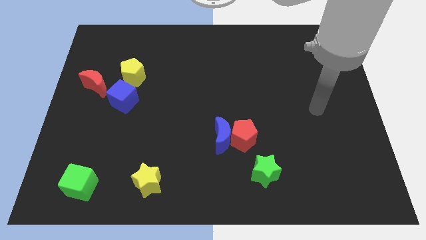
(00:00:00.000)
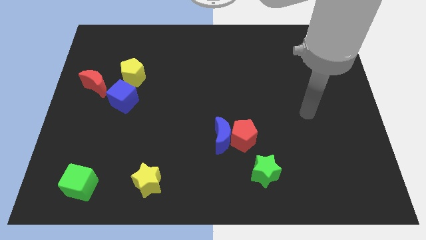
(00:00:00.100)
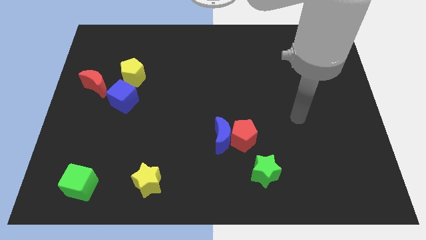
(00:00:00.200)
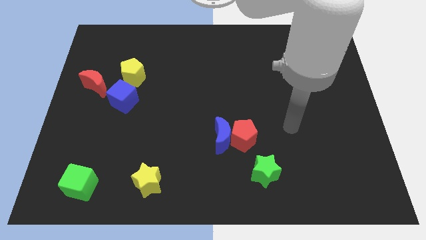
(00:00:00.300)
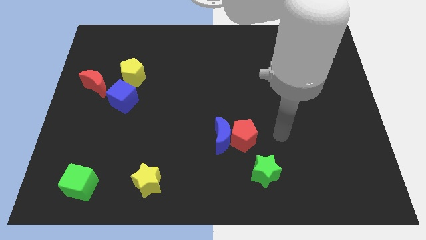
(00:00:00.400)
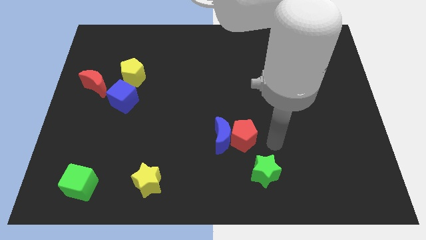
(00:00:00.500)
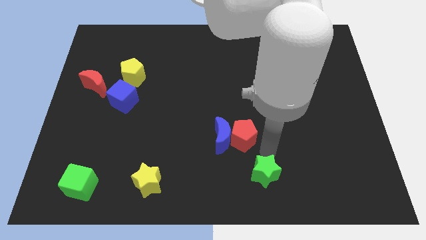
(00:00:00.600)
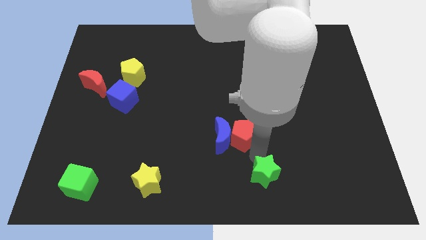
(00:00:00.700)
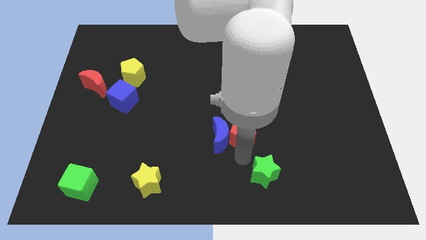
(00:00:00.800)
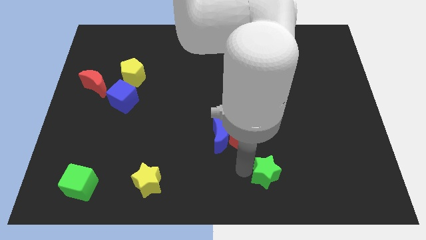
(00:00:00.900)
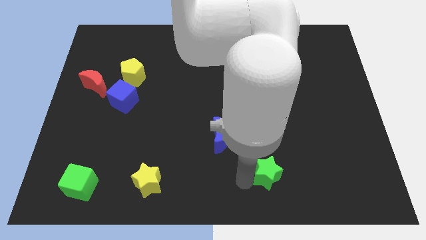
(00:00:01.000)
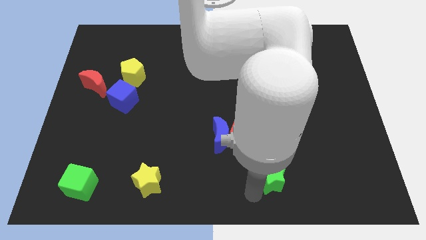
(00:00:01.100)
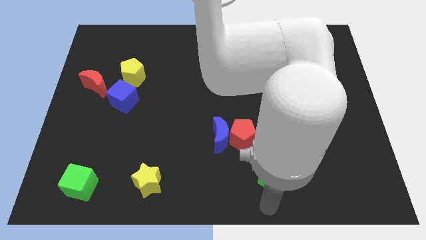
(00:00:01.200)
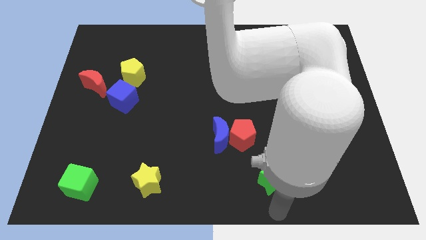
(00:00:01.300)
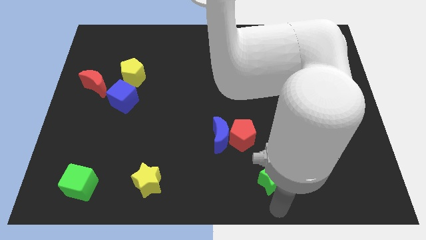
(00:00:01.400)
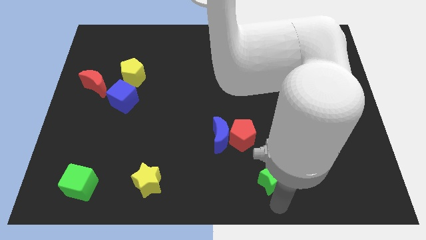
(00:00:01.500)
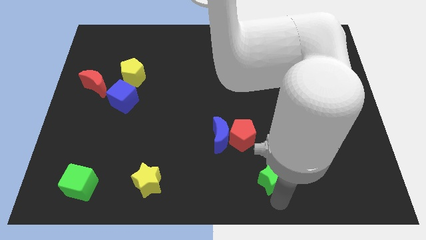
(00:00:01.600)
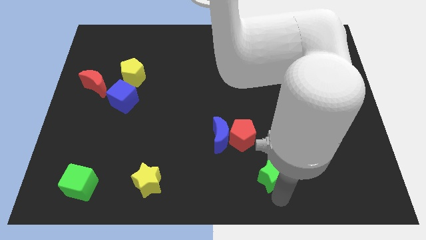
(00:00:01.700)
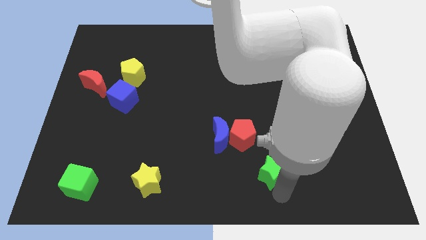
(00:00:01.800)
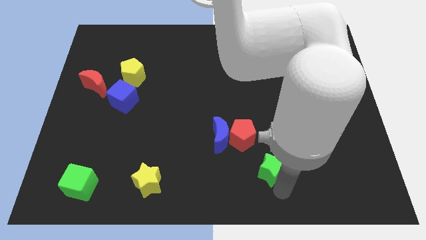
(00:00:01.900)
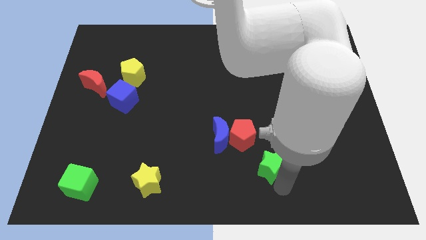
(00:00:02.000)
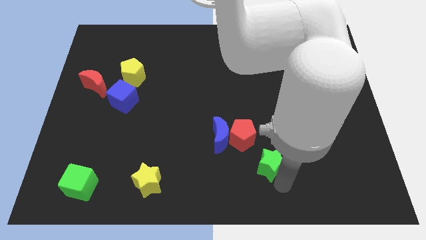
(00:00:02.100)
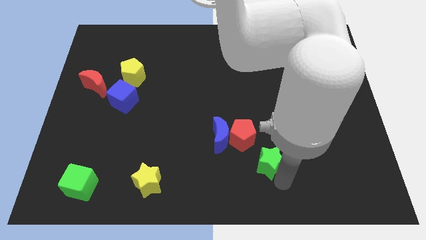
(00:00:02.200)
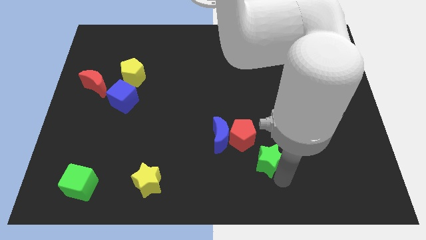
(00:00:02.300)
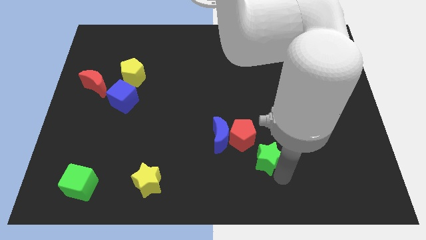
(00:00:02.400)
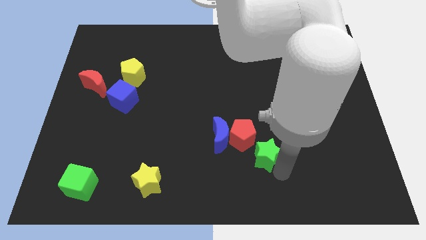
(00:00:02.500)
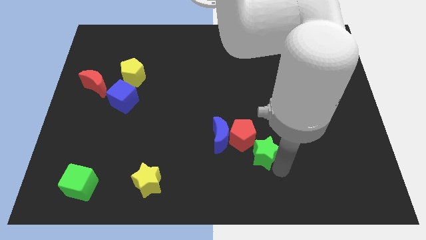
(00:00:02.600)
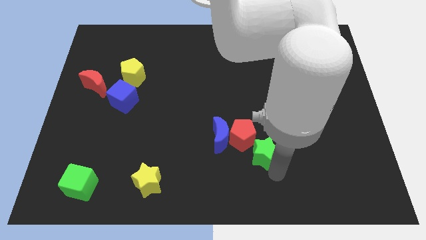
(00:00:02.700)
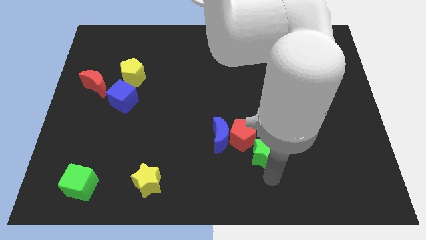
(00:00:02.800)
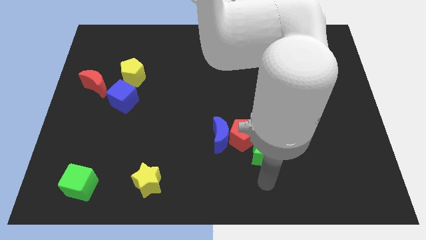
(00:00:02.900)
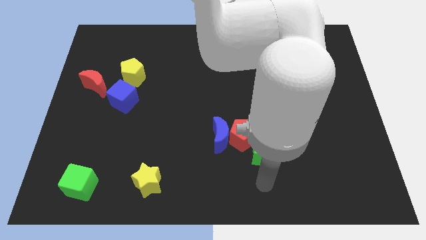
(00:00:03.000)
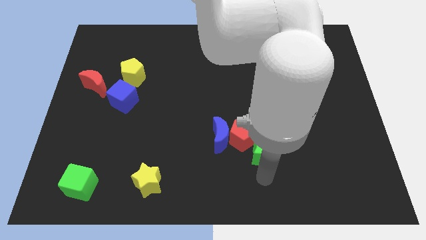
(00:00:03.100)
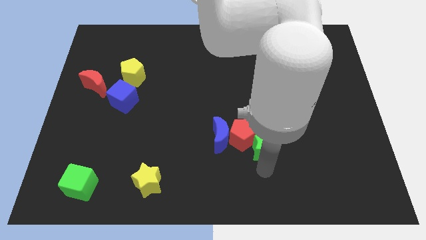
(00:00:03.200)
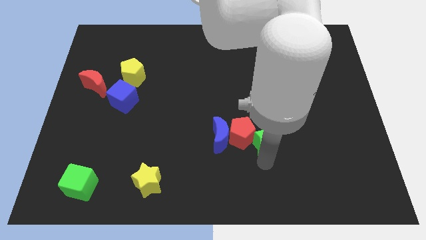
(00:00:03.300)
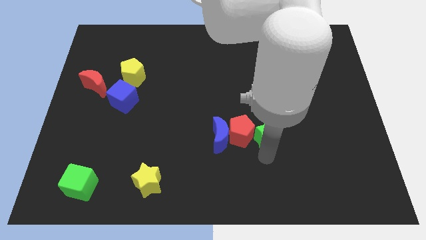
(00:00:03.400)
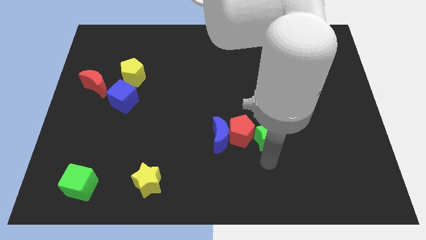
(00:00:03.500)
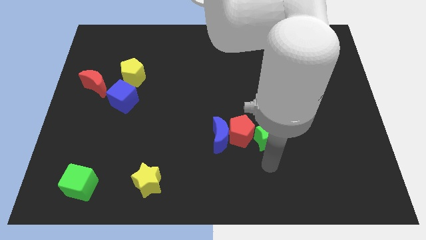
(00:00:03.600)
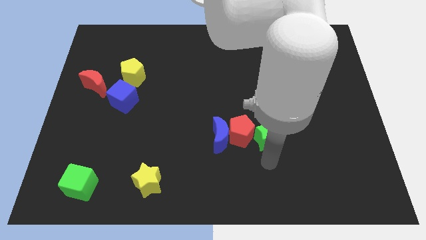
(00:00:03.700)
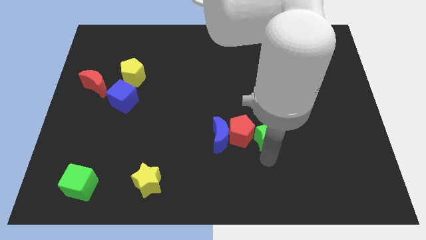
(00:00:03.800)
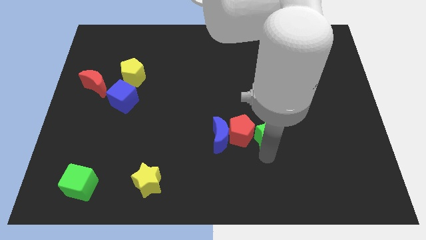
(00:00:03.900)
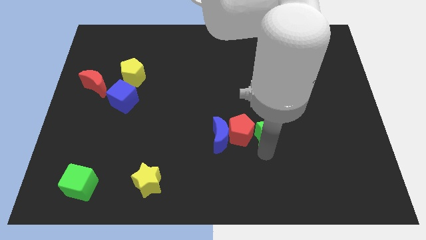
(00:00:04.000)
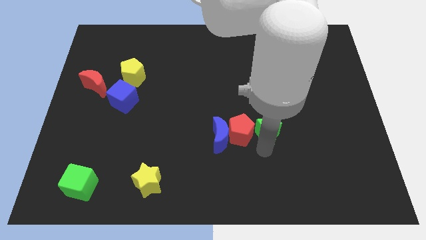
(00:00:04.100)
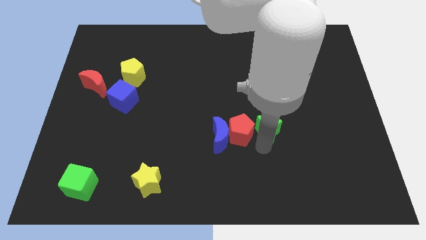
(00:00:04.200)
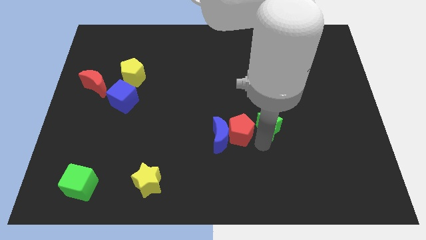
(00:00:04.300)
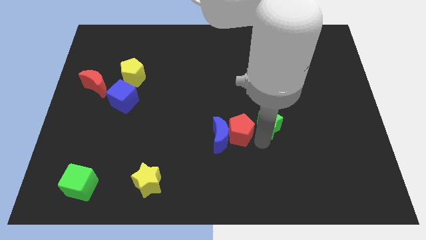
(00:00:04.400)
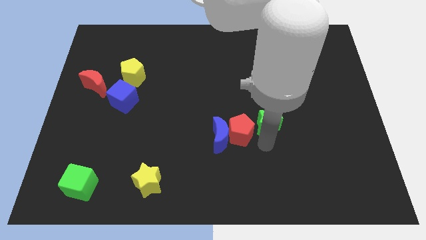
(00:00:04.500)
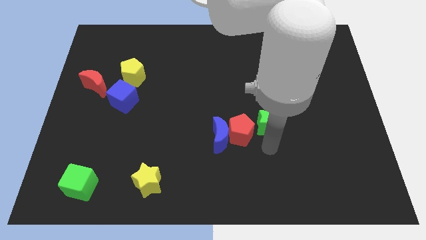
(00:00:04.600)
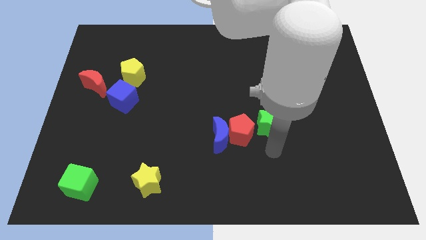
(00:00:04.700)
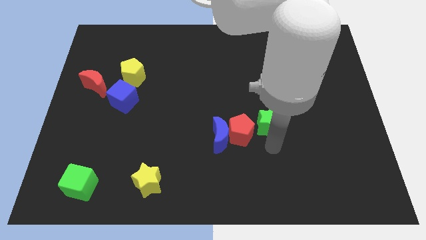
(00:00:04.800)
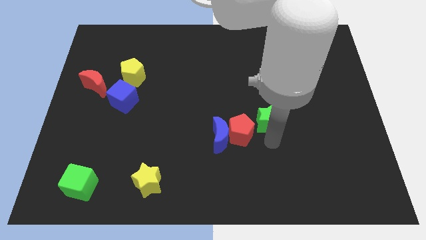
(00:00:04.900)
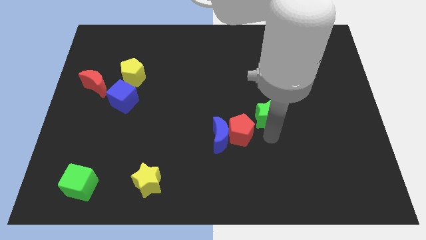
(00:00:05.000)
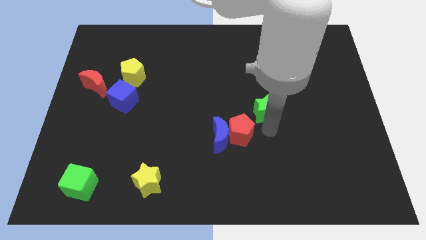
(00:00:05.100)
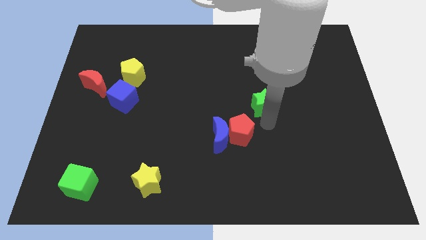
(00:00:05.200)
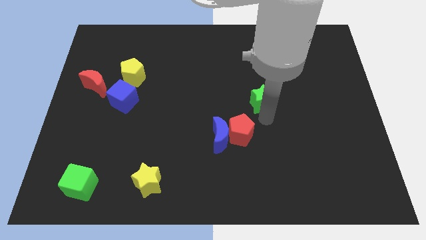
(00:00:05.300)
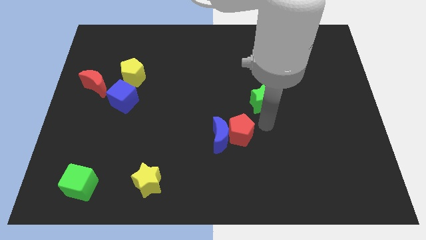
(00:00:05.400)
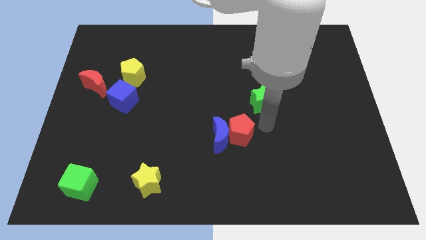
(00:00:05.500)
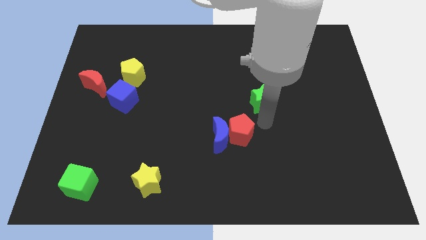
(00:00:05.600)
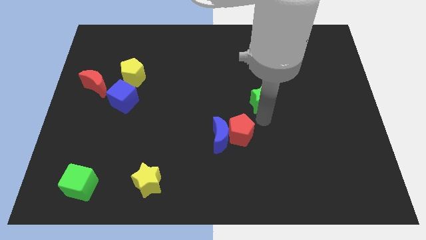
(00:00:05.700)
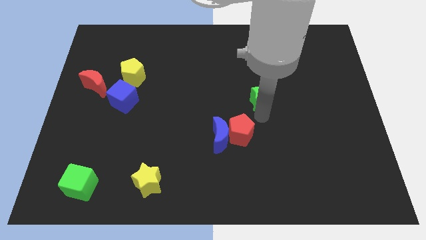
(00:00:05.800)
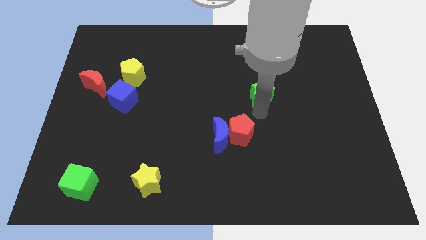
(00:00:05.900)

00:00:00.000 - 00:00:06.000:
push the green star upwards

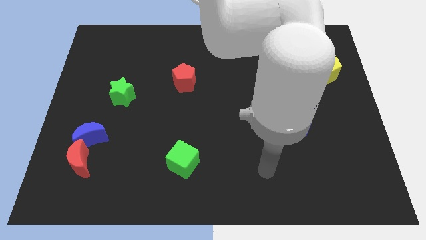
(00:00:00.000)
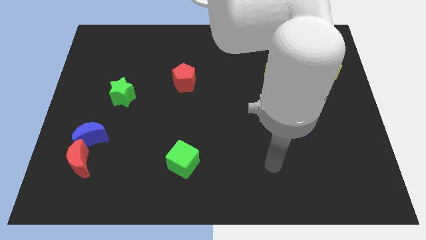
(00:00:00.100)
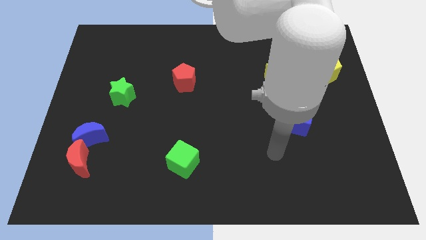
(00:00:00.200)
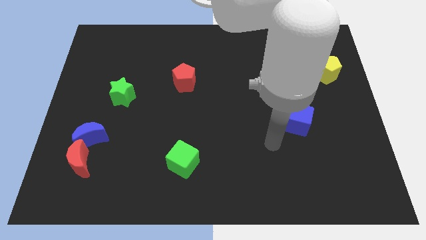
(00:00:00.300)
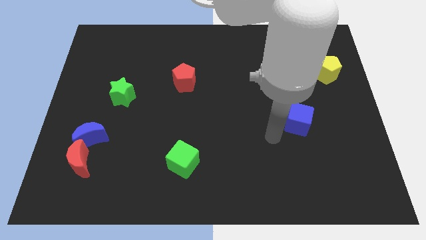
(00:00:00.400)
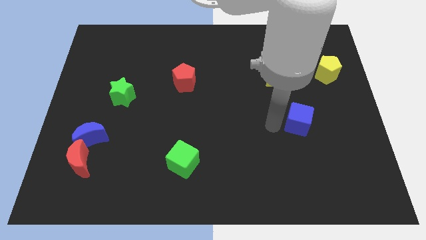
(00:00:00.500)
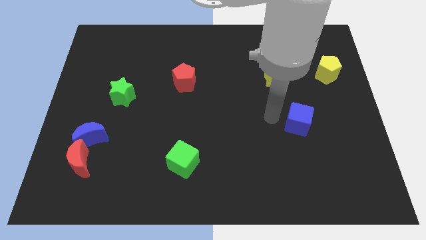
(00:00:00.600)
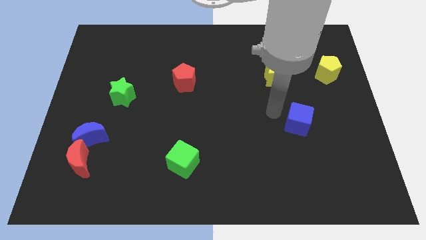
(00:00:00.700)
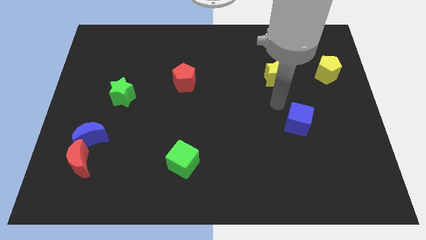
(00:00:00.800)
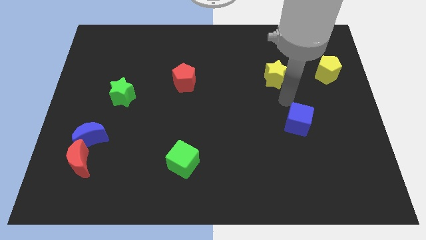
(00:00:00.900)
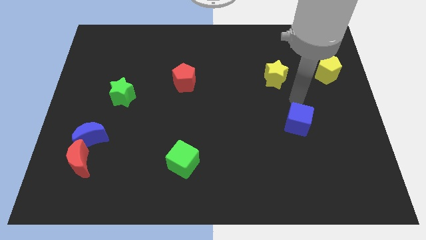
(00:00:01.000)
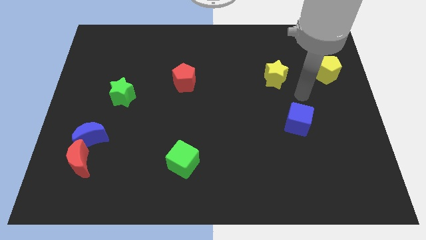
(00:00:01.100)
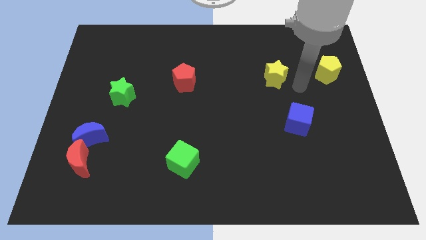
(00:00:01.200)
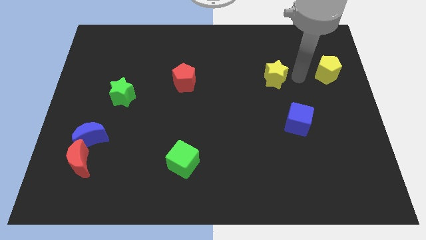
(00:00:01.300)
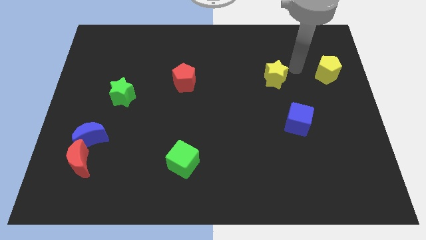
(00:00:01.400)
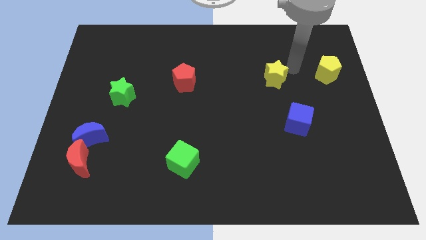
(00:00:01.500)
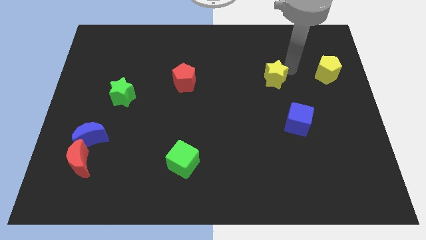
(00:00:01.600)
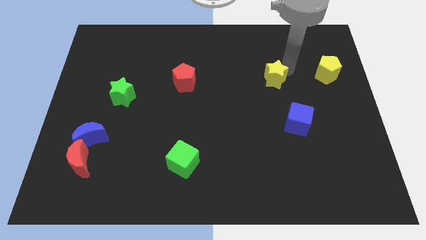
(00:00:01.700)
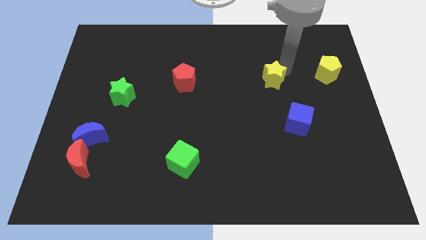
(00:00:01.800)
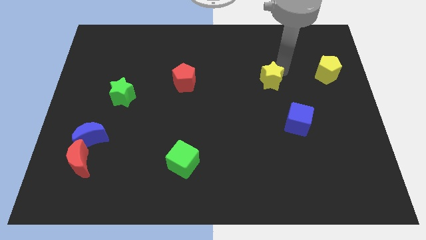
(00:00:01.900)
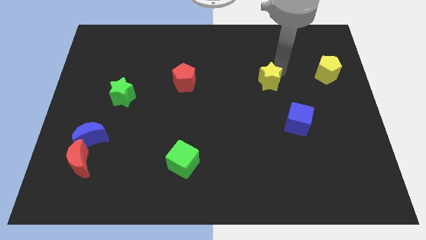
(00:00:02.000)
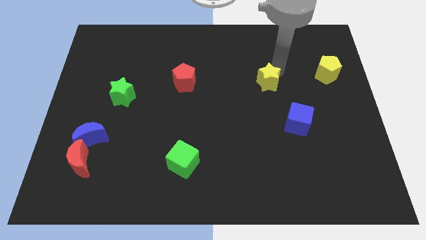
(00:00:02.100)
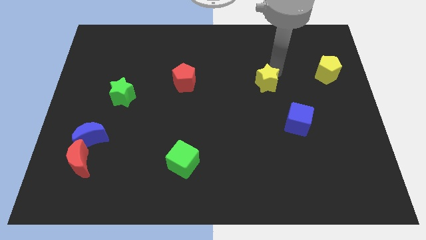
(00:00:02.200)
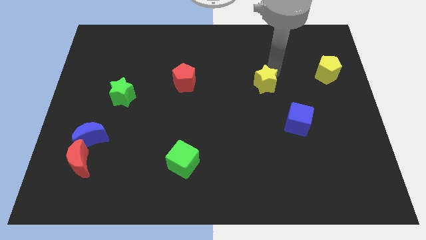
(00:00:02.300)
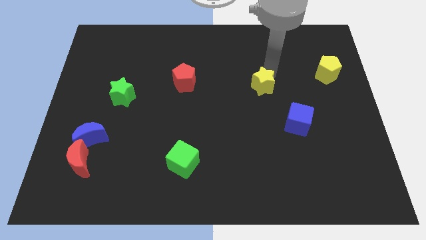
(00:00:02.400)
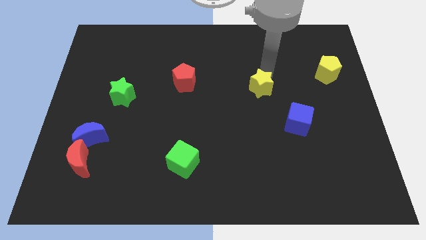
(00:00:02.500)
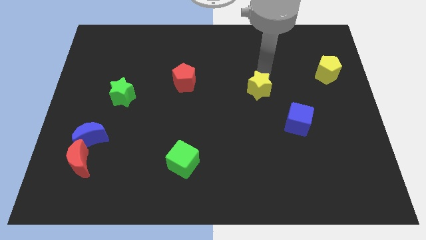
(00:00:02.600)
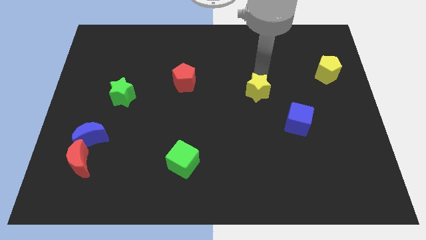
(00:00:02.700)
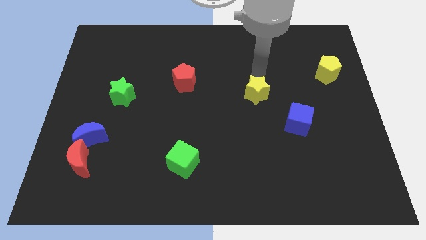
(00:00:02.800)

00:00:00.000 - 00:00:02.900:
push the yellow star down and left a little bit
